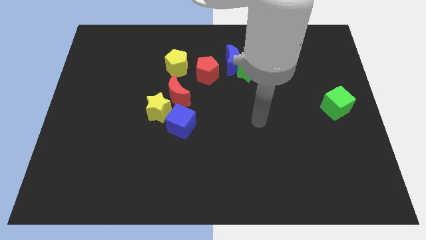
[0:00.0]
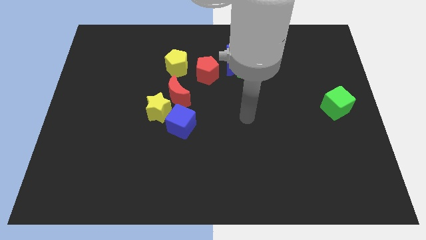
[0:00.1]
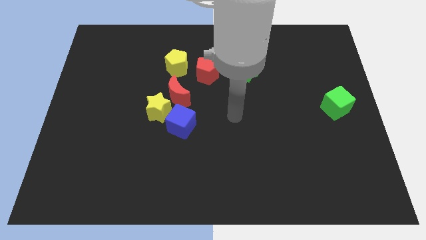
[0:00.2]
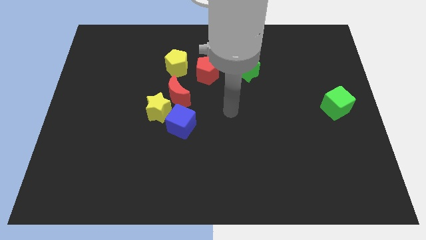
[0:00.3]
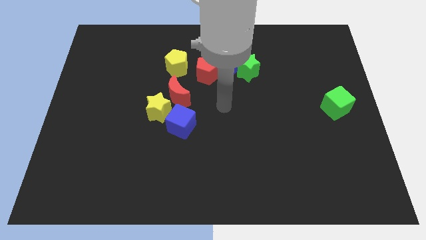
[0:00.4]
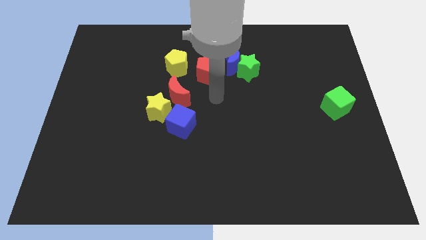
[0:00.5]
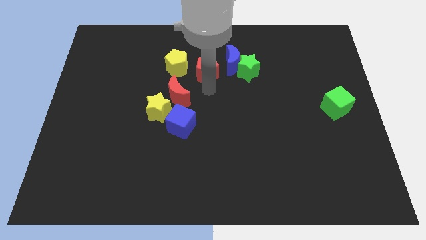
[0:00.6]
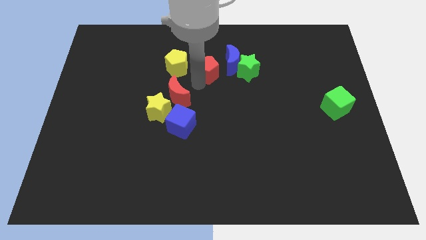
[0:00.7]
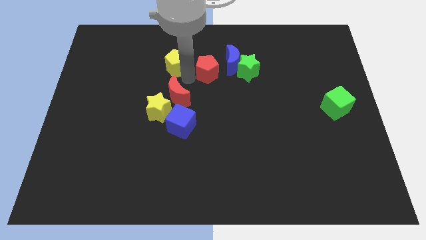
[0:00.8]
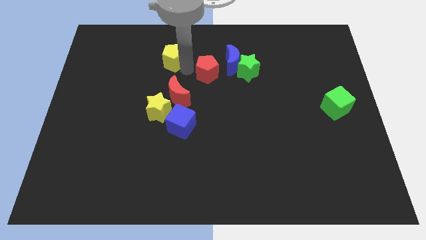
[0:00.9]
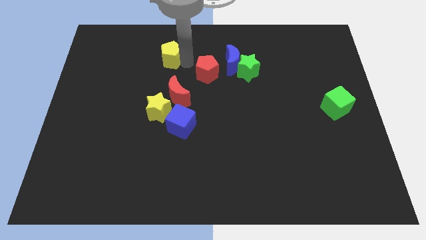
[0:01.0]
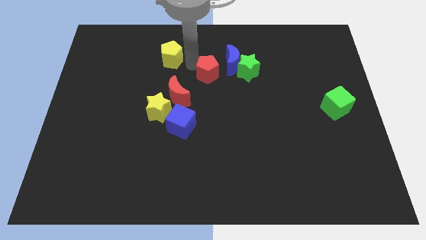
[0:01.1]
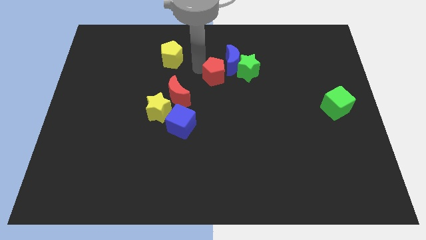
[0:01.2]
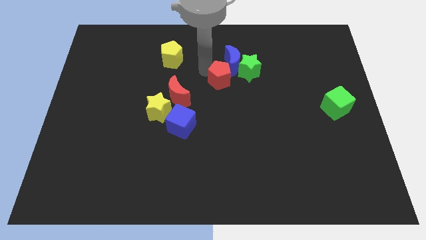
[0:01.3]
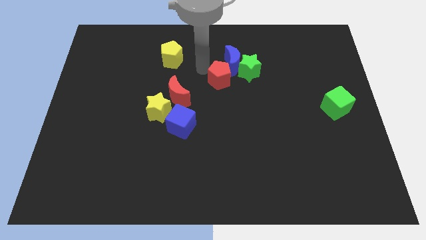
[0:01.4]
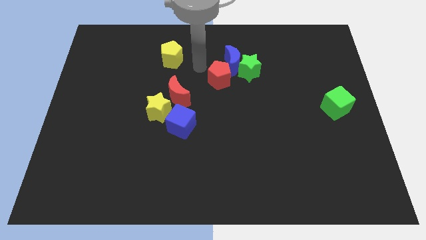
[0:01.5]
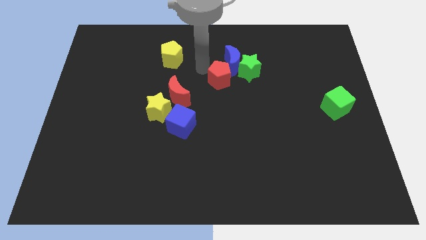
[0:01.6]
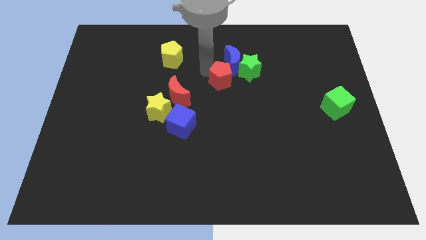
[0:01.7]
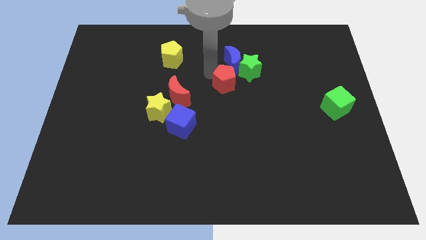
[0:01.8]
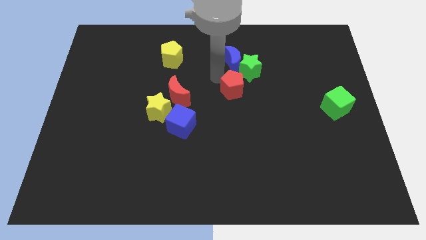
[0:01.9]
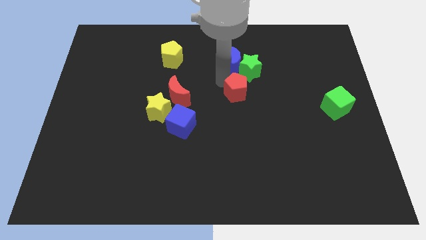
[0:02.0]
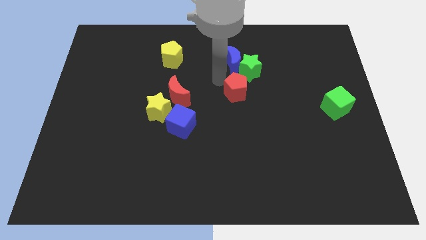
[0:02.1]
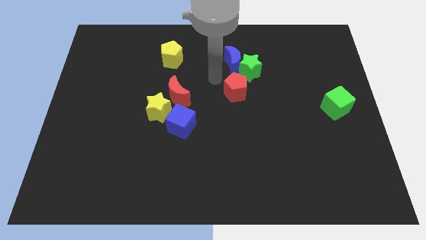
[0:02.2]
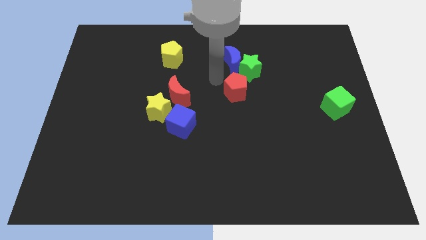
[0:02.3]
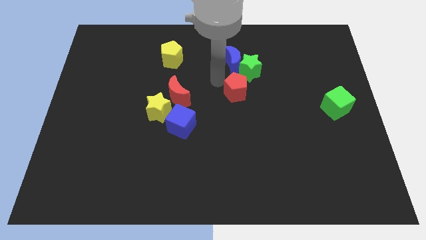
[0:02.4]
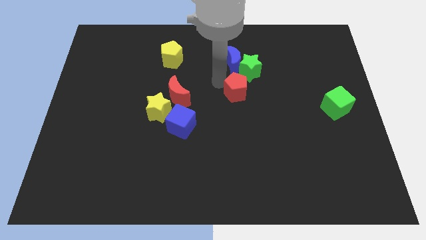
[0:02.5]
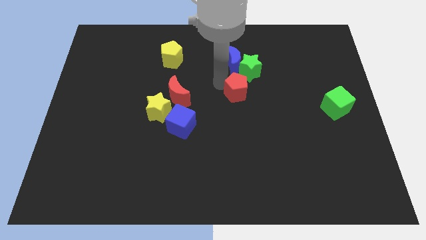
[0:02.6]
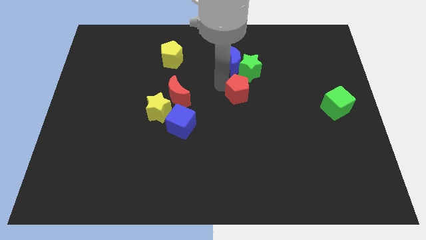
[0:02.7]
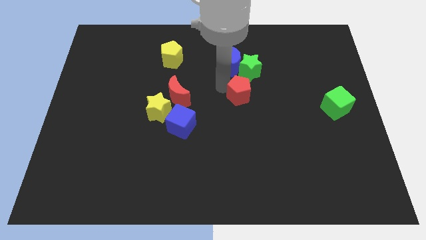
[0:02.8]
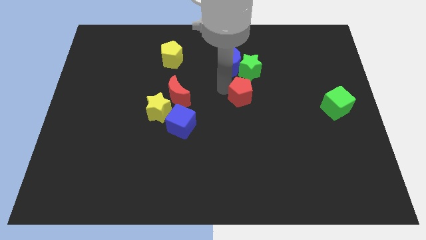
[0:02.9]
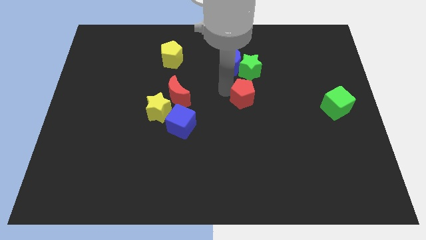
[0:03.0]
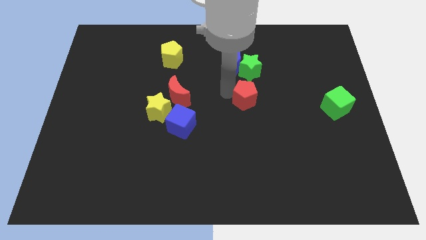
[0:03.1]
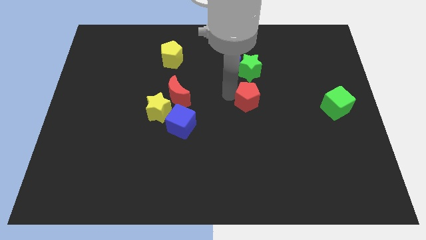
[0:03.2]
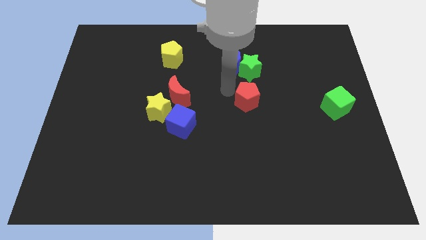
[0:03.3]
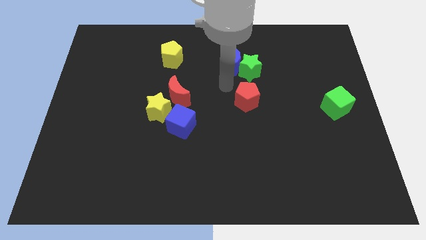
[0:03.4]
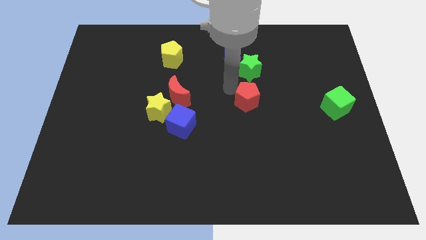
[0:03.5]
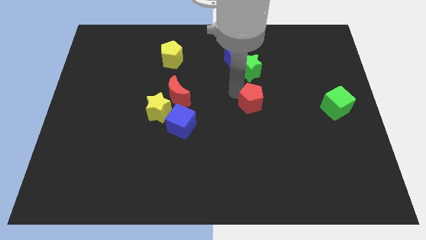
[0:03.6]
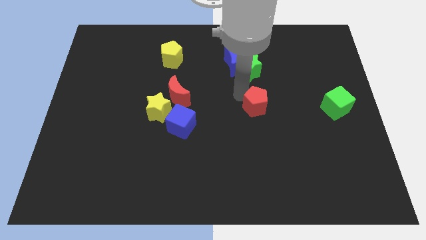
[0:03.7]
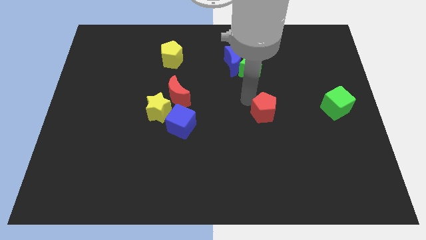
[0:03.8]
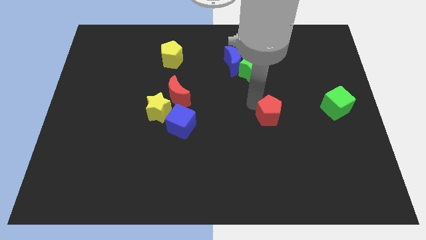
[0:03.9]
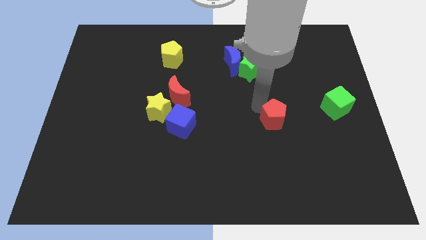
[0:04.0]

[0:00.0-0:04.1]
push the red pentagon down and right

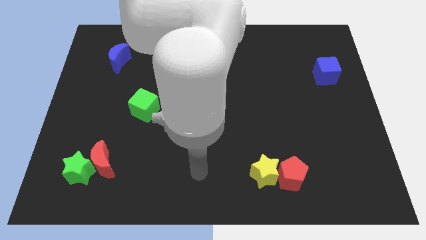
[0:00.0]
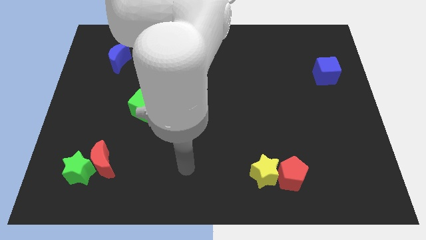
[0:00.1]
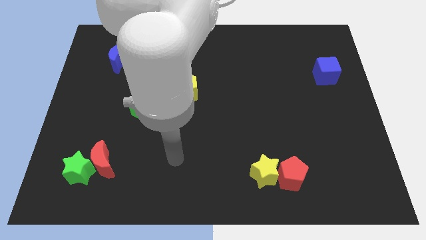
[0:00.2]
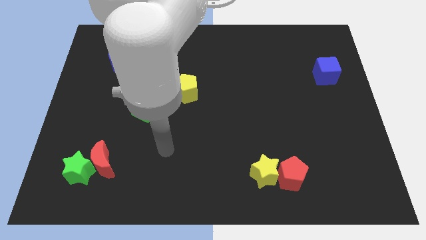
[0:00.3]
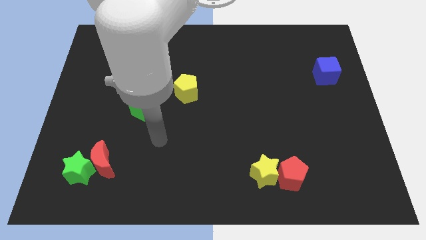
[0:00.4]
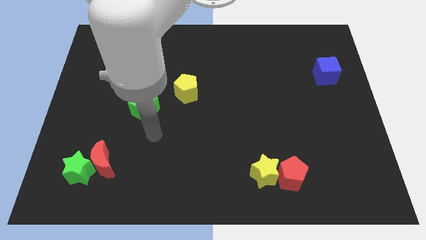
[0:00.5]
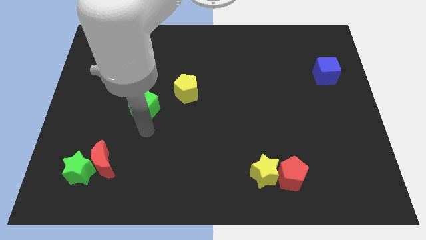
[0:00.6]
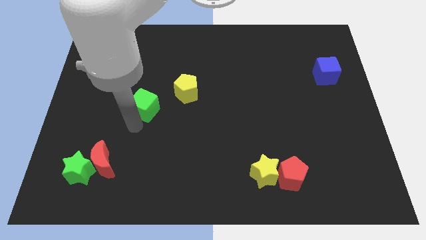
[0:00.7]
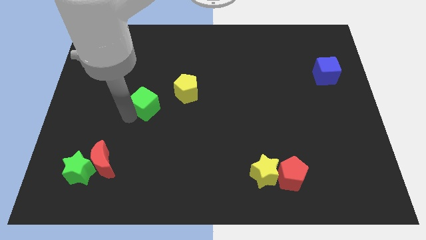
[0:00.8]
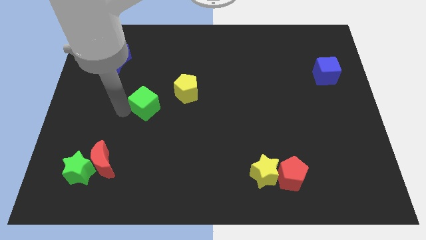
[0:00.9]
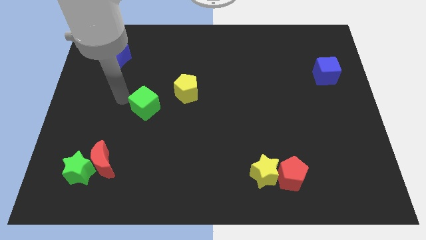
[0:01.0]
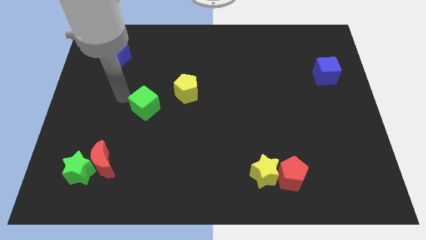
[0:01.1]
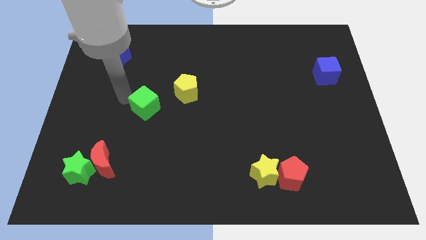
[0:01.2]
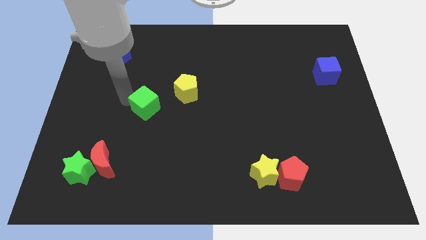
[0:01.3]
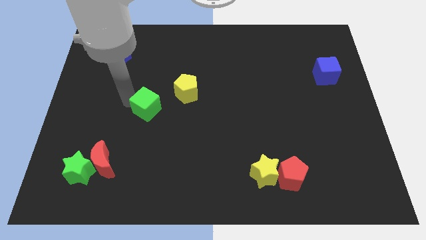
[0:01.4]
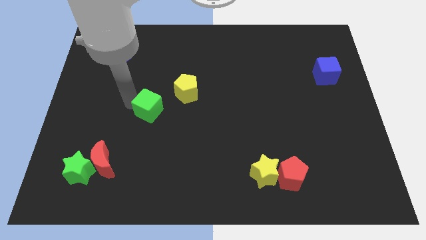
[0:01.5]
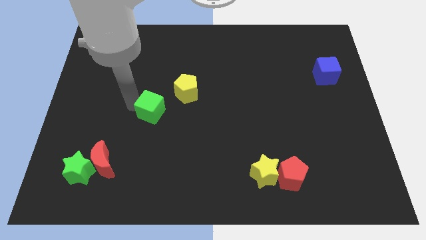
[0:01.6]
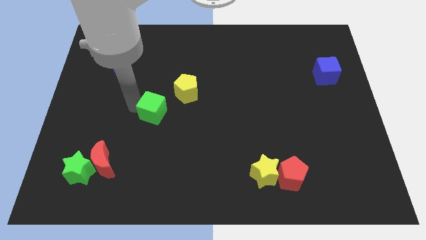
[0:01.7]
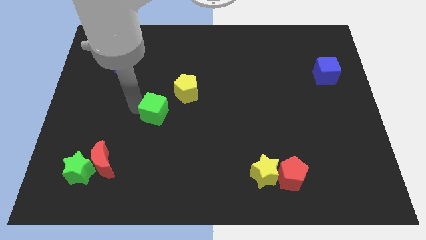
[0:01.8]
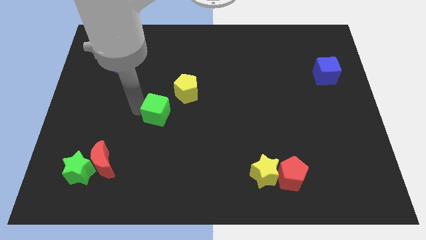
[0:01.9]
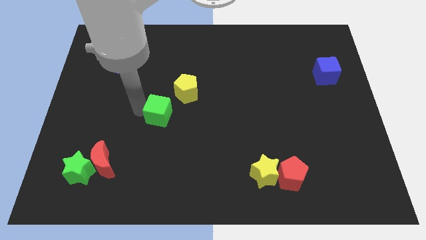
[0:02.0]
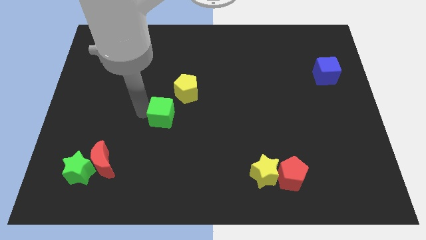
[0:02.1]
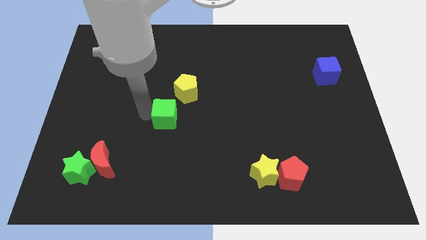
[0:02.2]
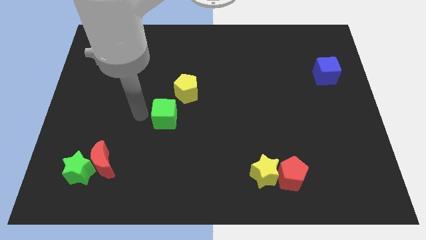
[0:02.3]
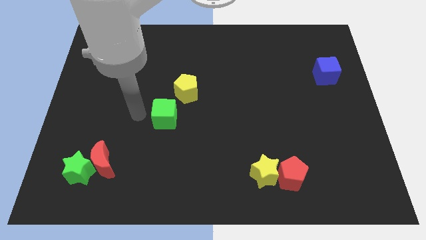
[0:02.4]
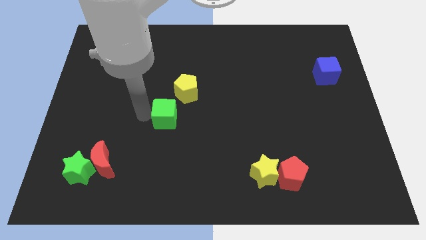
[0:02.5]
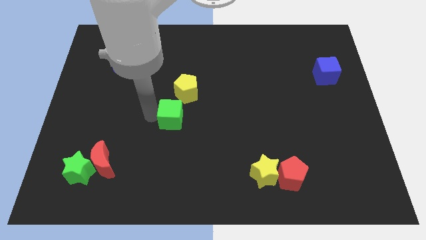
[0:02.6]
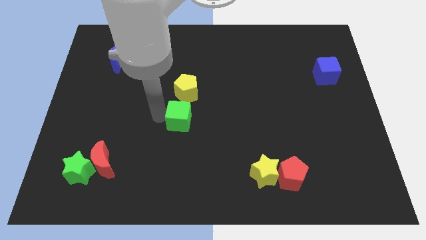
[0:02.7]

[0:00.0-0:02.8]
slightly push the green cube right

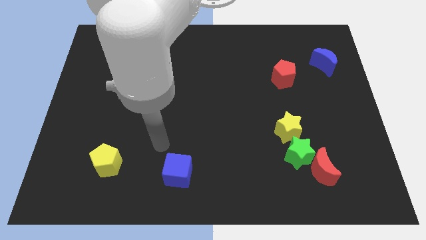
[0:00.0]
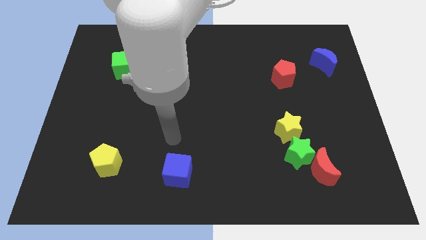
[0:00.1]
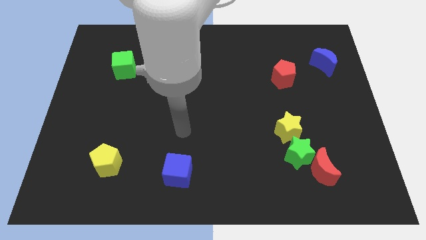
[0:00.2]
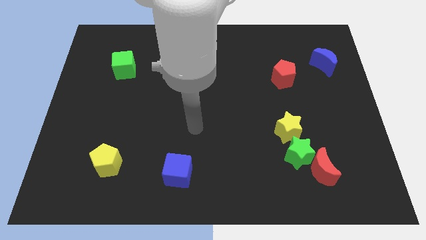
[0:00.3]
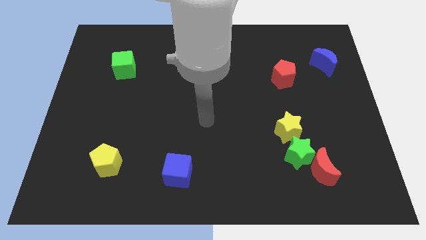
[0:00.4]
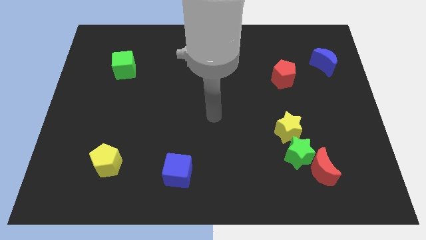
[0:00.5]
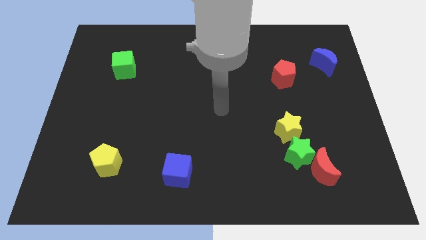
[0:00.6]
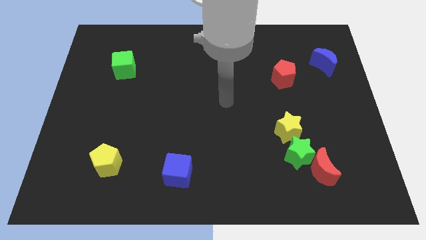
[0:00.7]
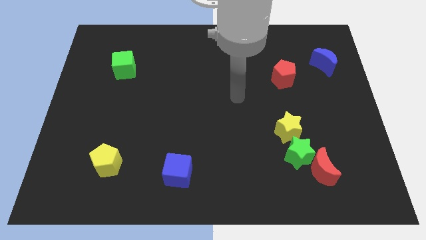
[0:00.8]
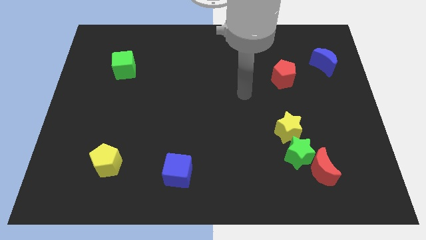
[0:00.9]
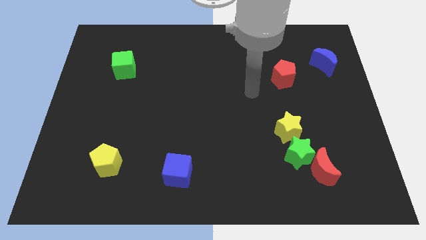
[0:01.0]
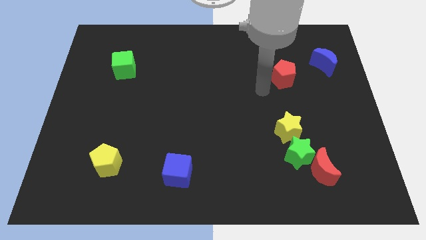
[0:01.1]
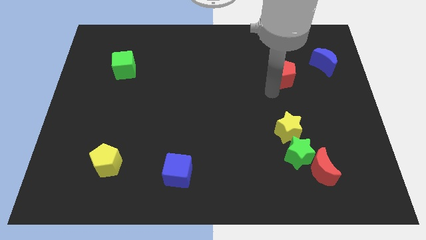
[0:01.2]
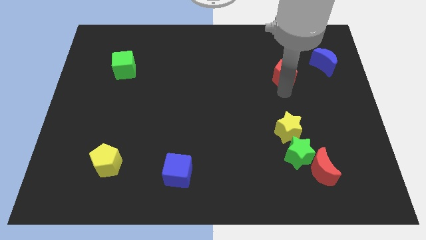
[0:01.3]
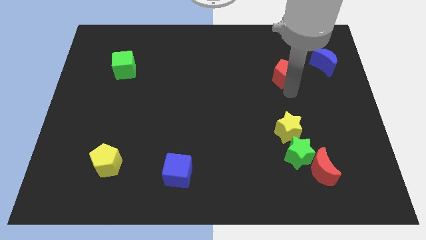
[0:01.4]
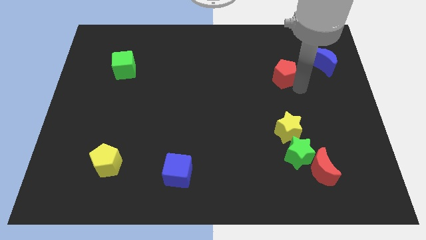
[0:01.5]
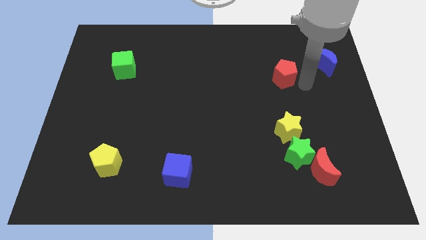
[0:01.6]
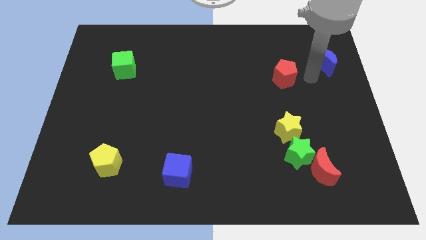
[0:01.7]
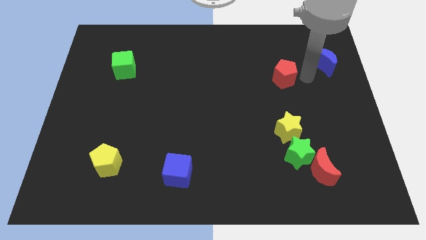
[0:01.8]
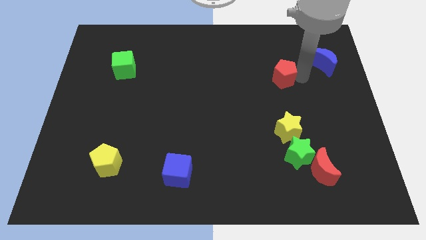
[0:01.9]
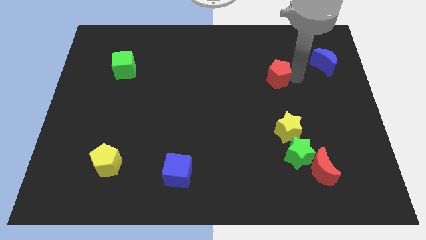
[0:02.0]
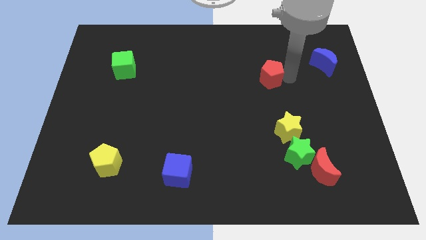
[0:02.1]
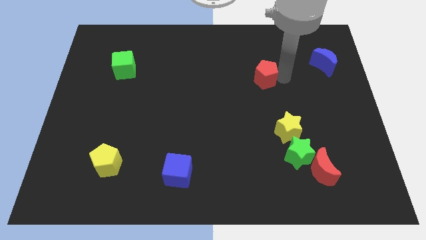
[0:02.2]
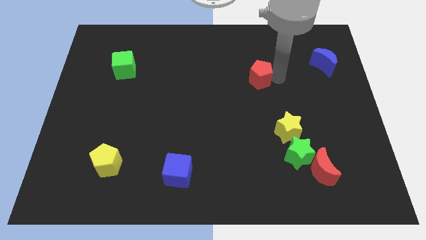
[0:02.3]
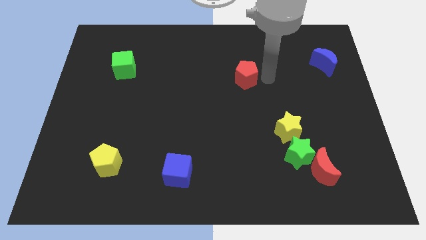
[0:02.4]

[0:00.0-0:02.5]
push the red pentagon a bit to the left
